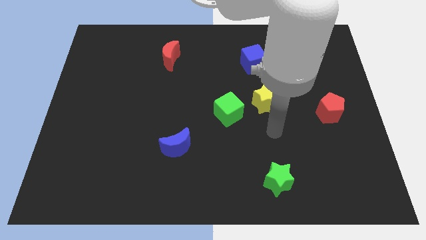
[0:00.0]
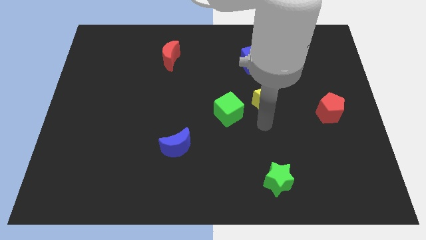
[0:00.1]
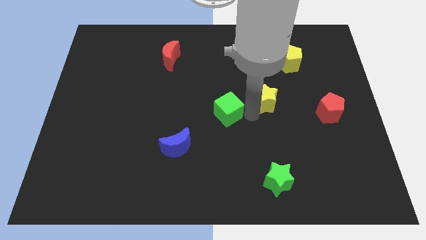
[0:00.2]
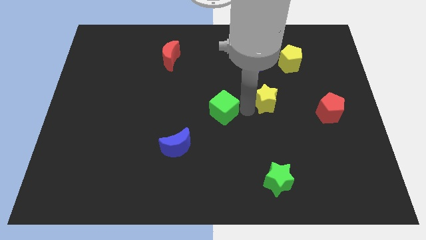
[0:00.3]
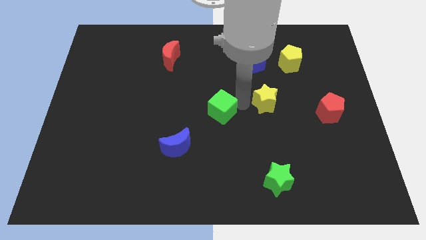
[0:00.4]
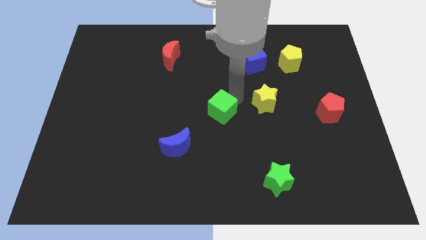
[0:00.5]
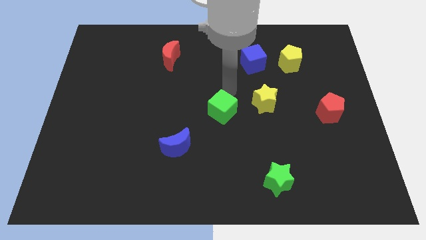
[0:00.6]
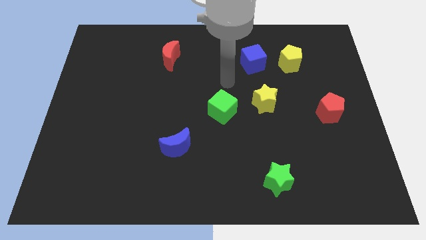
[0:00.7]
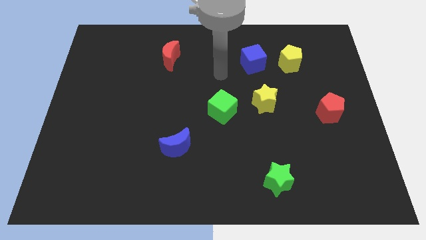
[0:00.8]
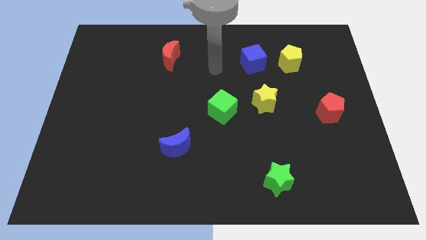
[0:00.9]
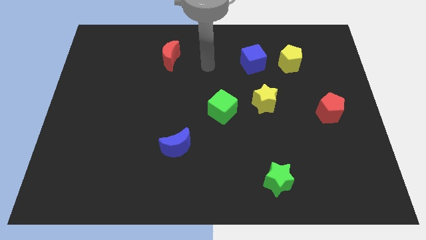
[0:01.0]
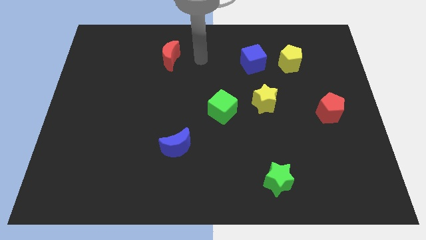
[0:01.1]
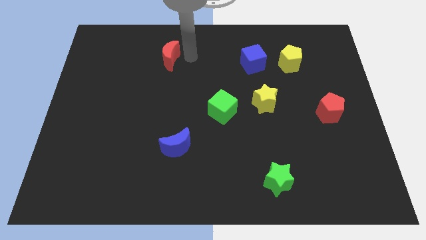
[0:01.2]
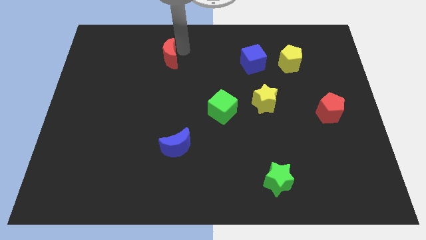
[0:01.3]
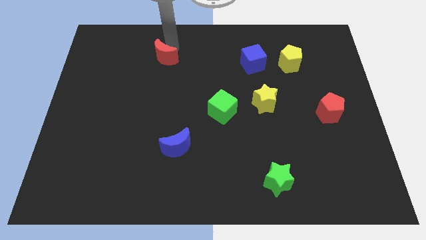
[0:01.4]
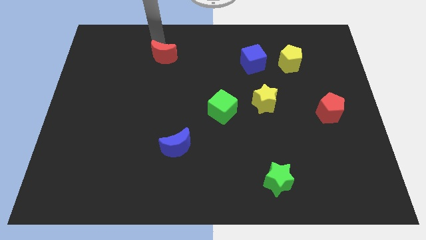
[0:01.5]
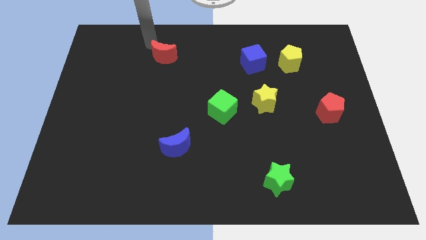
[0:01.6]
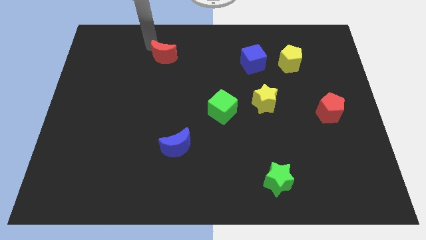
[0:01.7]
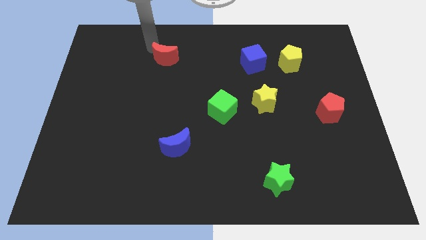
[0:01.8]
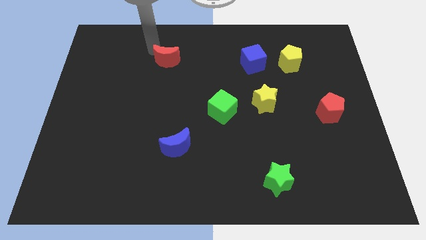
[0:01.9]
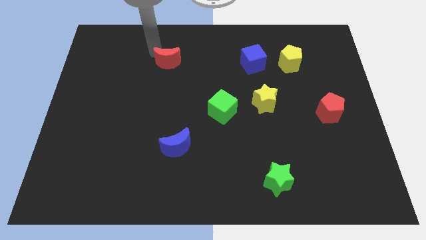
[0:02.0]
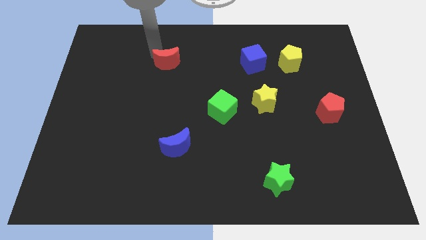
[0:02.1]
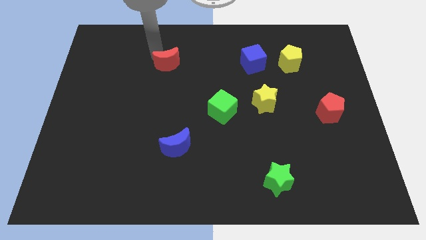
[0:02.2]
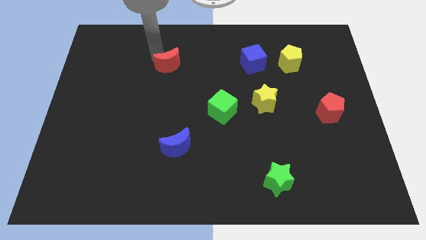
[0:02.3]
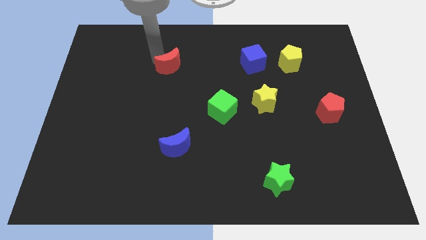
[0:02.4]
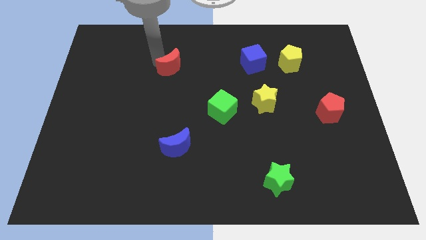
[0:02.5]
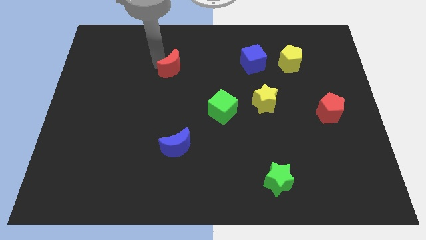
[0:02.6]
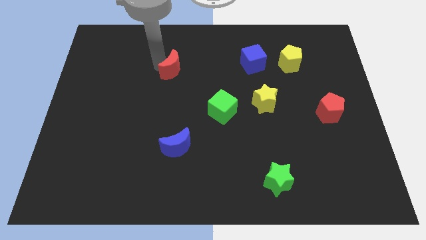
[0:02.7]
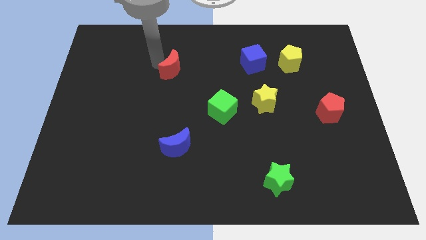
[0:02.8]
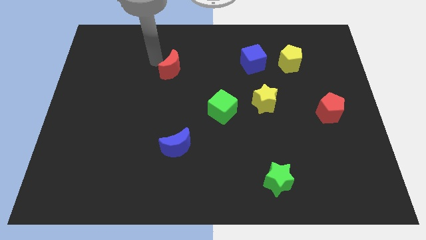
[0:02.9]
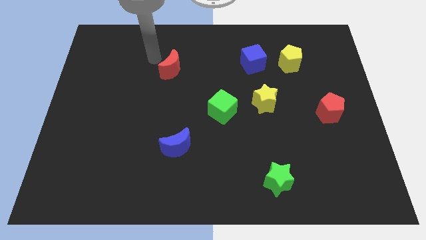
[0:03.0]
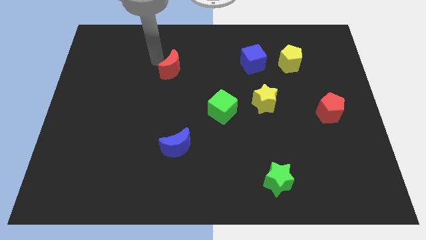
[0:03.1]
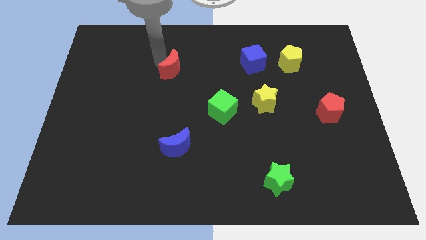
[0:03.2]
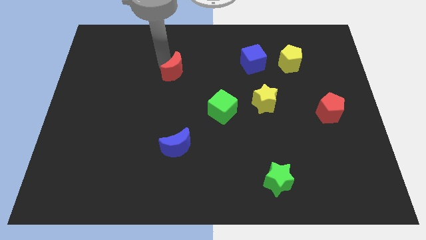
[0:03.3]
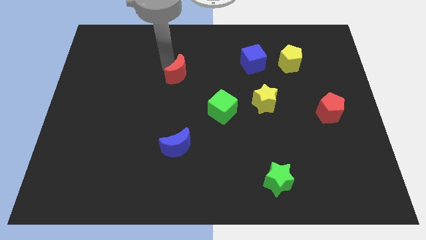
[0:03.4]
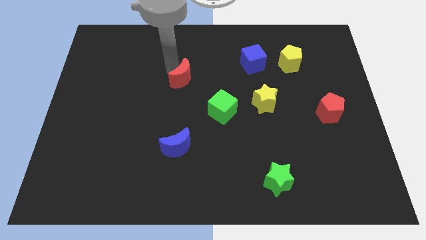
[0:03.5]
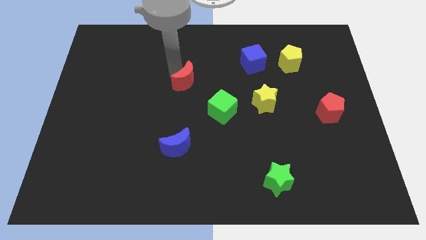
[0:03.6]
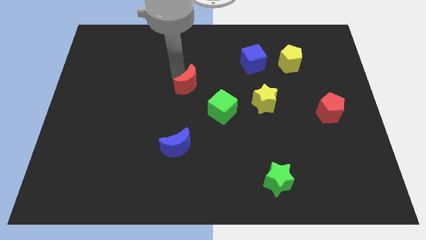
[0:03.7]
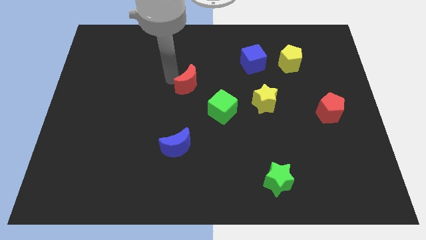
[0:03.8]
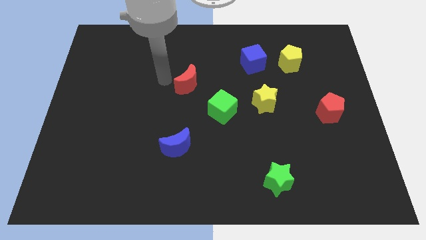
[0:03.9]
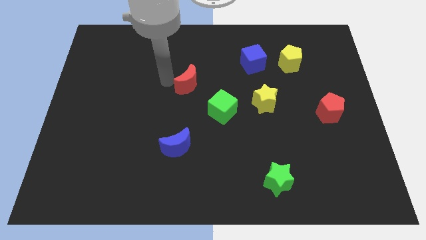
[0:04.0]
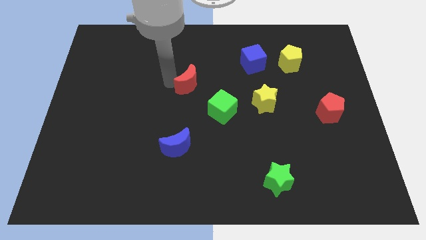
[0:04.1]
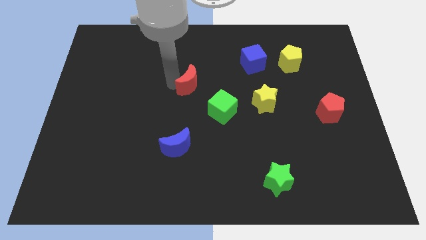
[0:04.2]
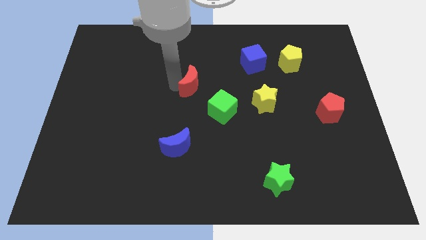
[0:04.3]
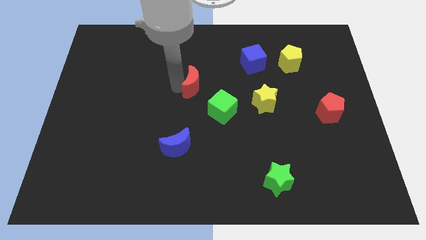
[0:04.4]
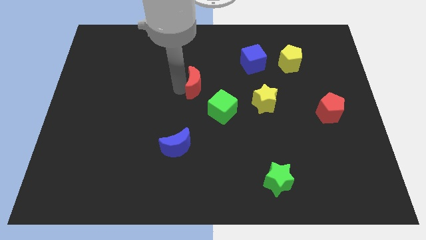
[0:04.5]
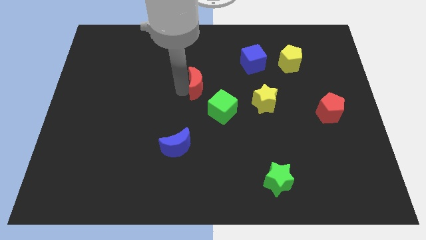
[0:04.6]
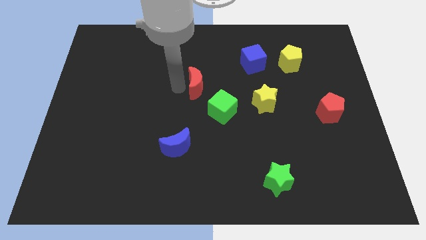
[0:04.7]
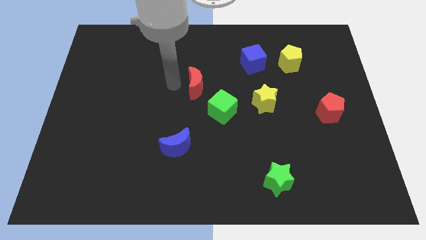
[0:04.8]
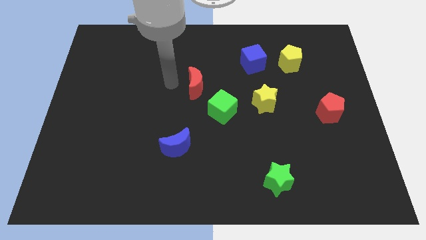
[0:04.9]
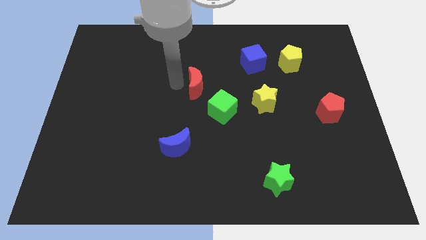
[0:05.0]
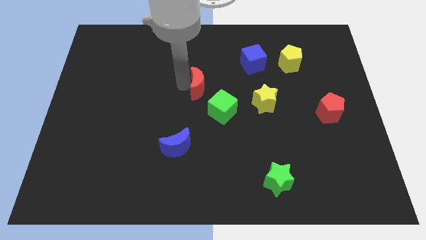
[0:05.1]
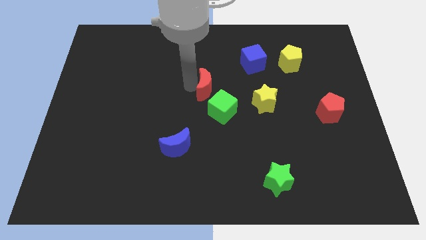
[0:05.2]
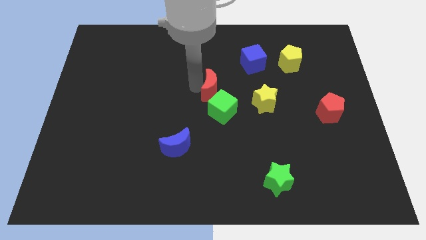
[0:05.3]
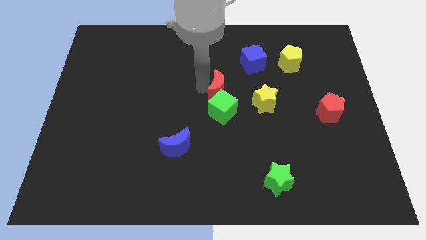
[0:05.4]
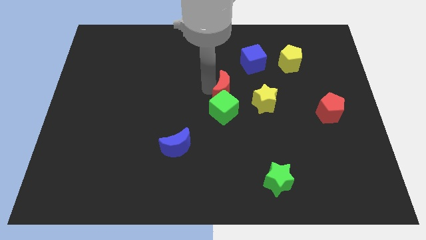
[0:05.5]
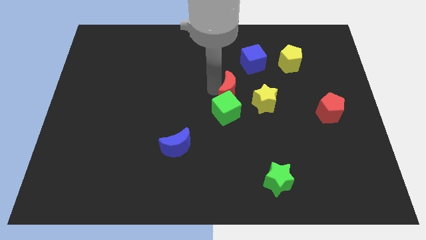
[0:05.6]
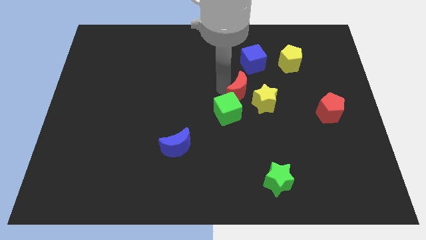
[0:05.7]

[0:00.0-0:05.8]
slide the red moon downwards and right

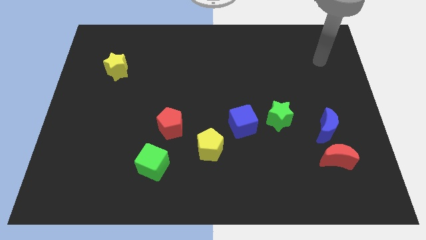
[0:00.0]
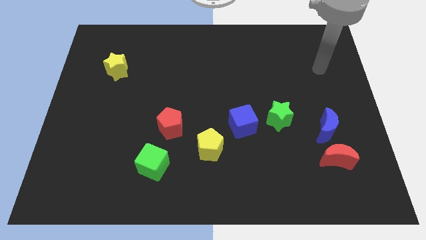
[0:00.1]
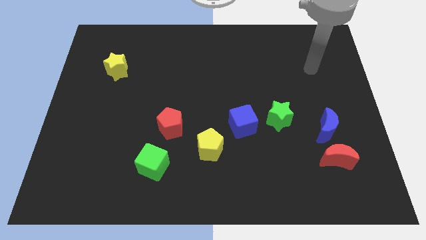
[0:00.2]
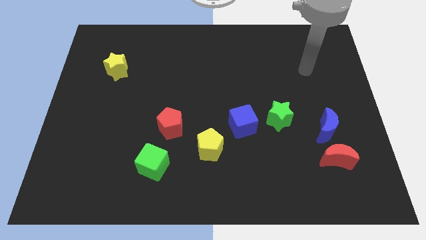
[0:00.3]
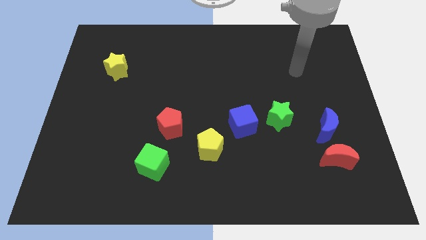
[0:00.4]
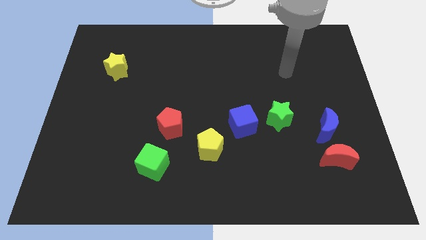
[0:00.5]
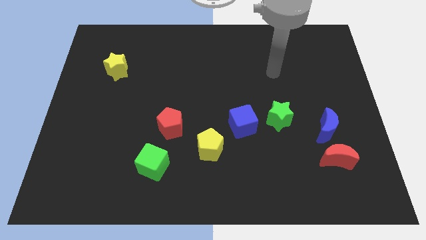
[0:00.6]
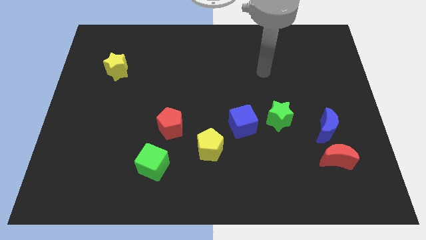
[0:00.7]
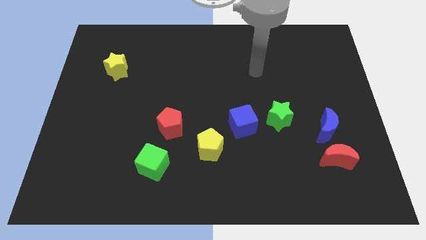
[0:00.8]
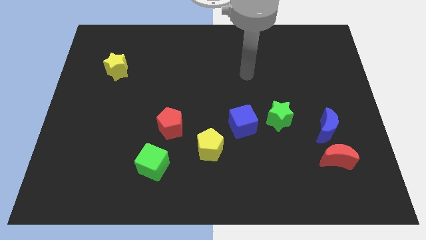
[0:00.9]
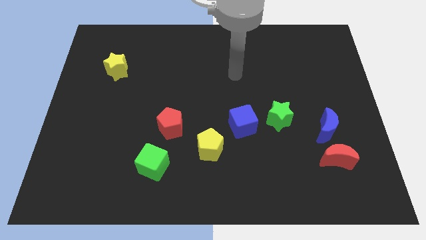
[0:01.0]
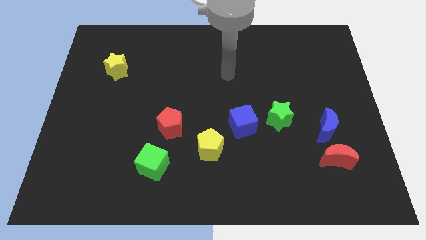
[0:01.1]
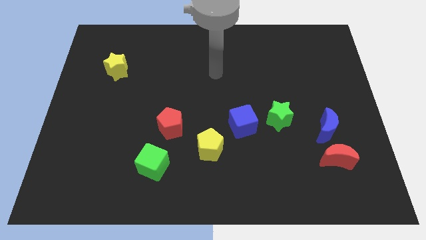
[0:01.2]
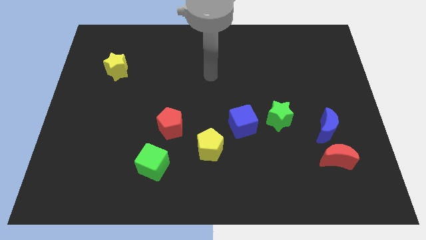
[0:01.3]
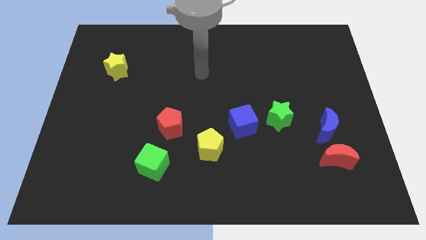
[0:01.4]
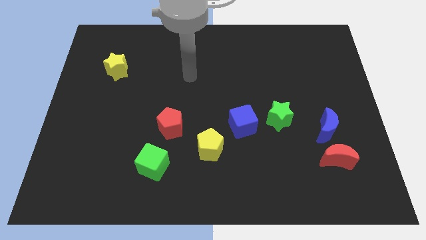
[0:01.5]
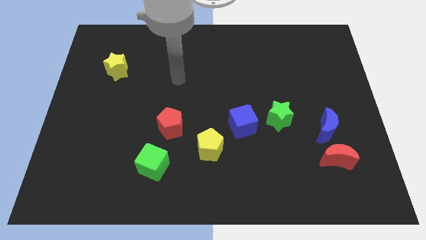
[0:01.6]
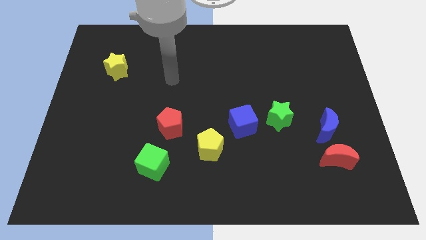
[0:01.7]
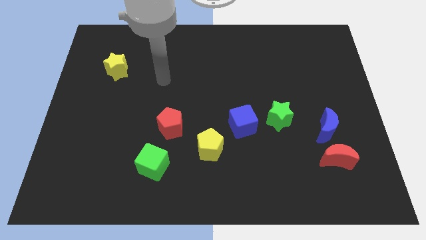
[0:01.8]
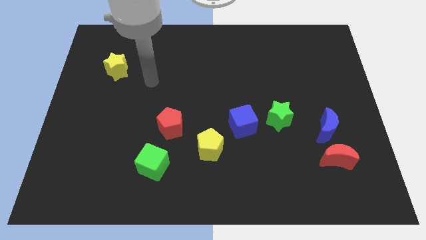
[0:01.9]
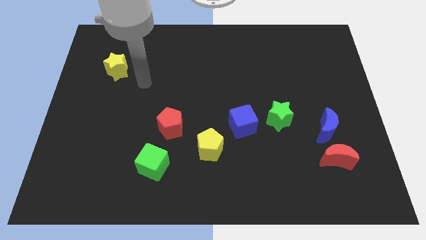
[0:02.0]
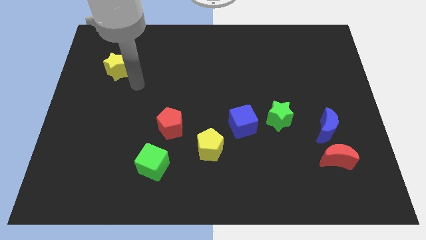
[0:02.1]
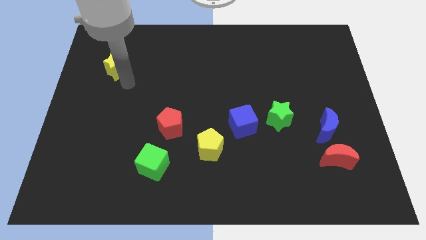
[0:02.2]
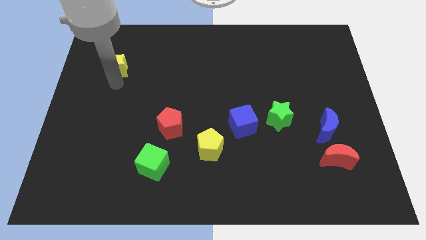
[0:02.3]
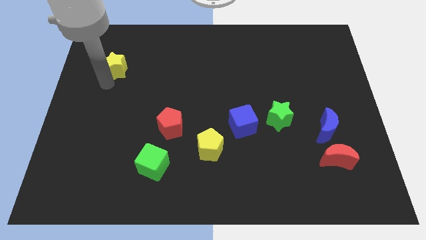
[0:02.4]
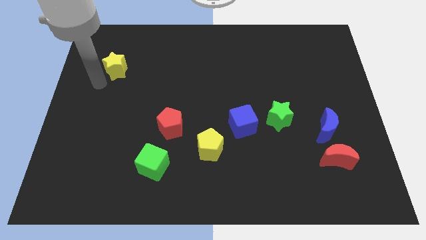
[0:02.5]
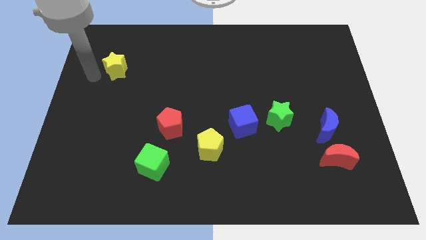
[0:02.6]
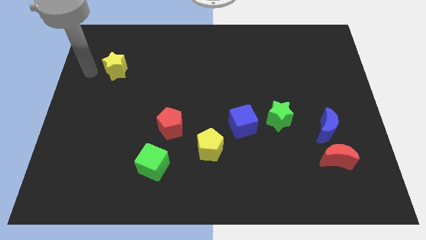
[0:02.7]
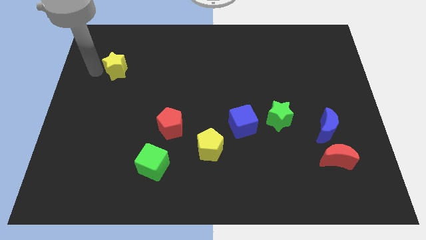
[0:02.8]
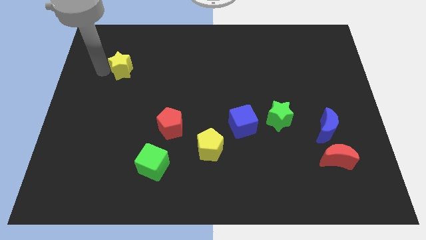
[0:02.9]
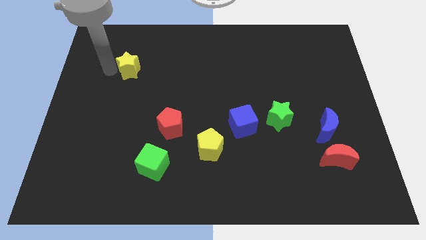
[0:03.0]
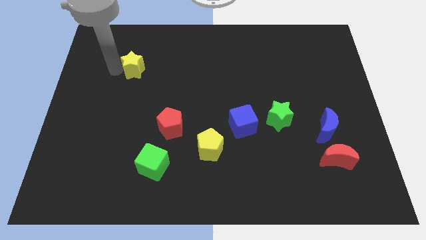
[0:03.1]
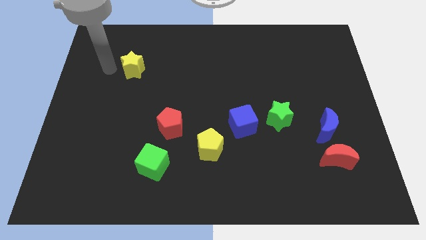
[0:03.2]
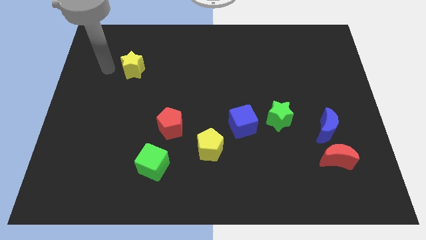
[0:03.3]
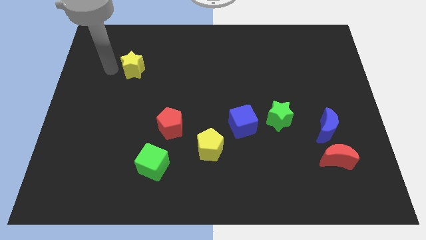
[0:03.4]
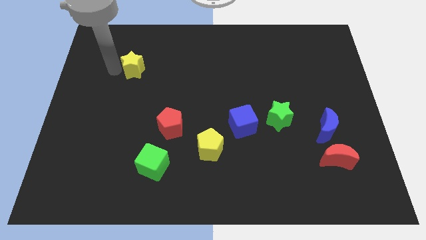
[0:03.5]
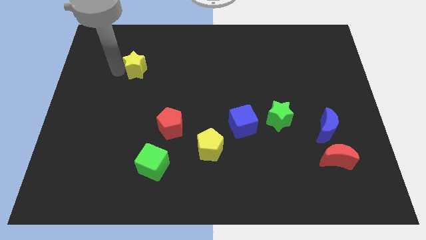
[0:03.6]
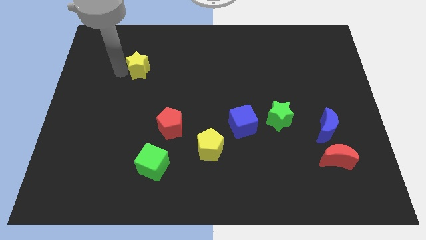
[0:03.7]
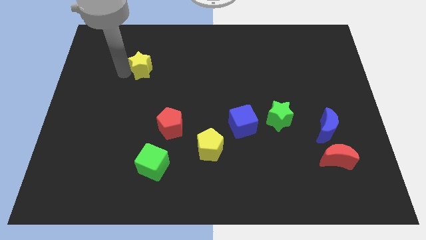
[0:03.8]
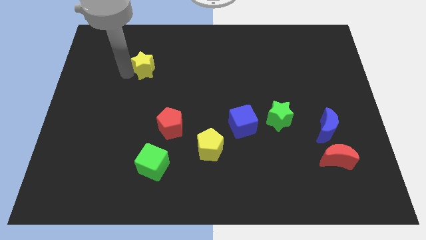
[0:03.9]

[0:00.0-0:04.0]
move the yellow star a little bit right
